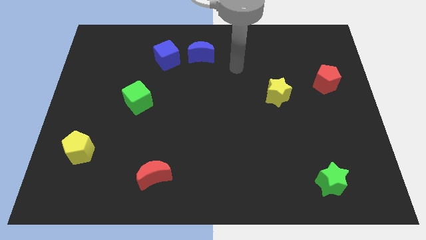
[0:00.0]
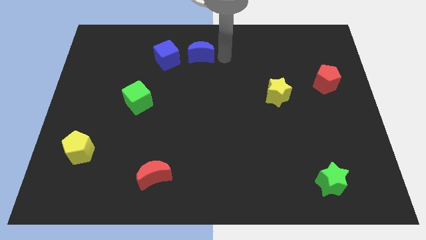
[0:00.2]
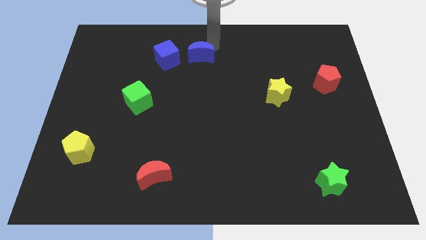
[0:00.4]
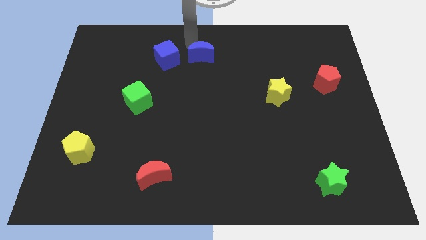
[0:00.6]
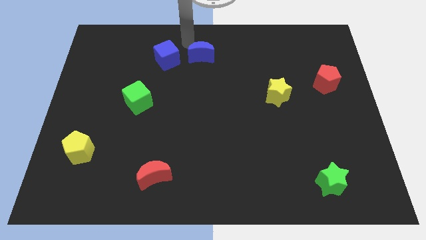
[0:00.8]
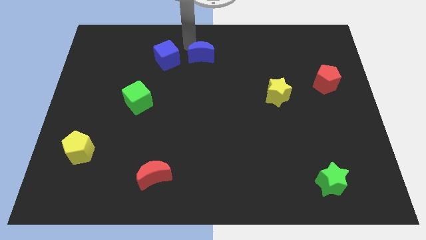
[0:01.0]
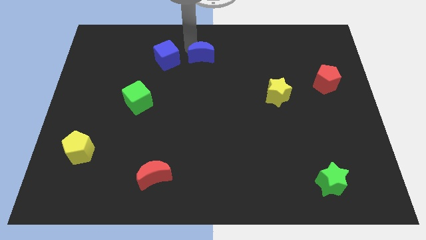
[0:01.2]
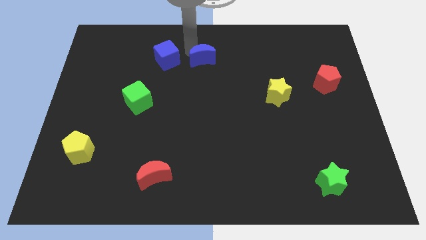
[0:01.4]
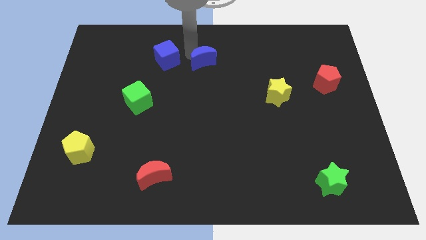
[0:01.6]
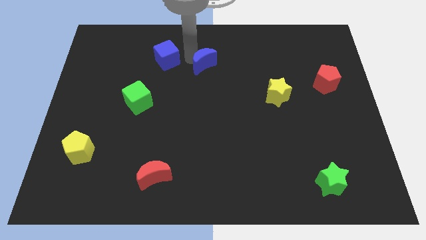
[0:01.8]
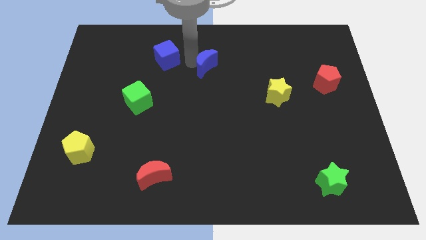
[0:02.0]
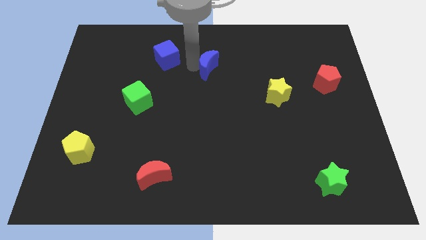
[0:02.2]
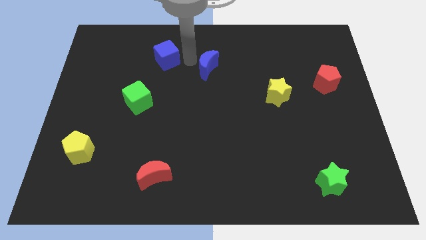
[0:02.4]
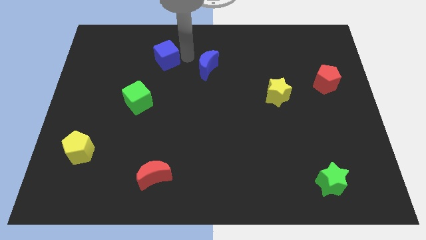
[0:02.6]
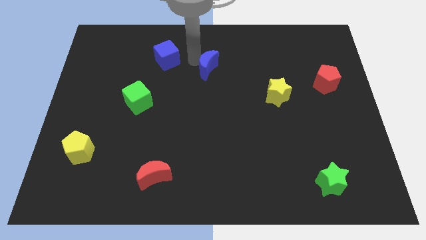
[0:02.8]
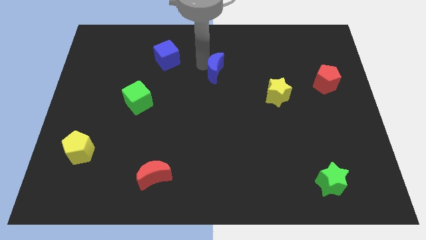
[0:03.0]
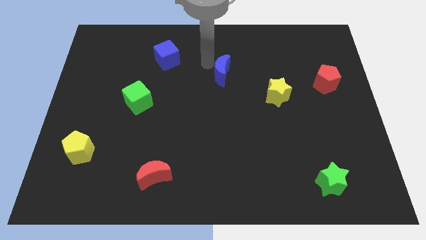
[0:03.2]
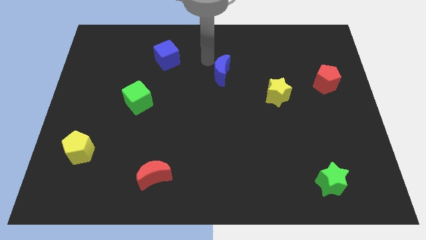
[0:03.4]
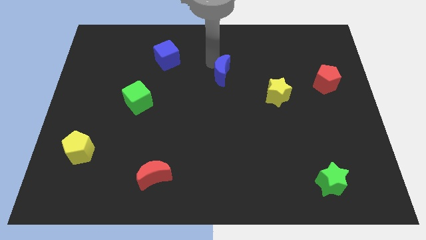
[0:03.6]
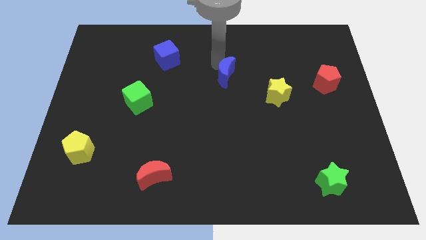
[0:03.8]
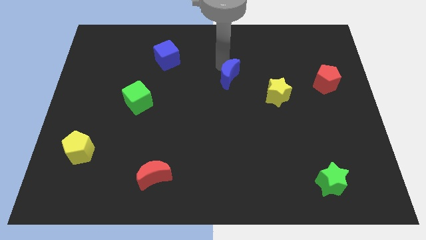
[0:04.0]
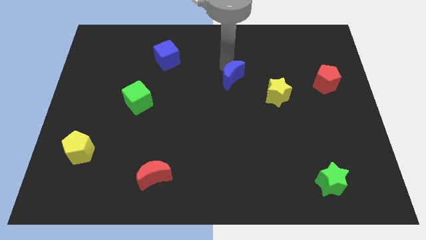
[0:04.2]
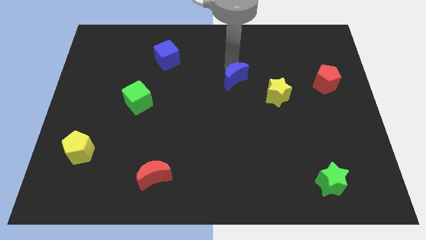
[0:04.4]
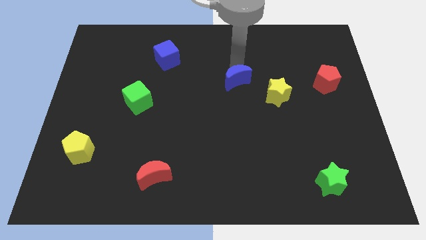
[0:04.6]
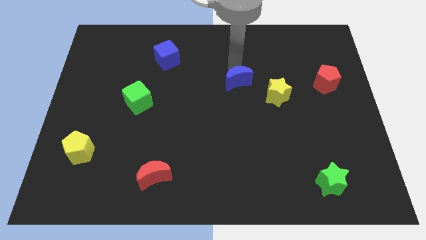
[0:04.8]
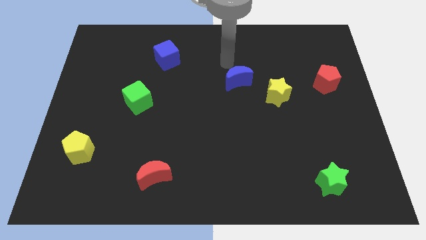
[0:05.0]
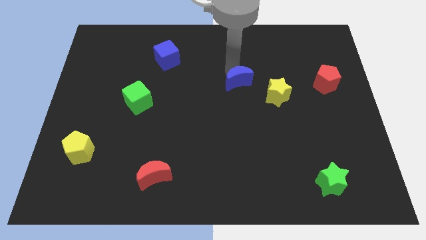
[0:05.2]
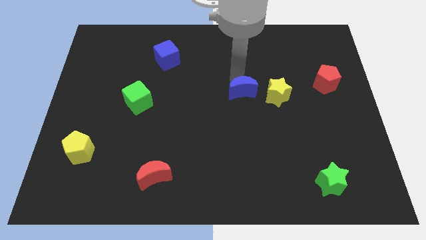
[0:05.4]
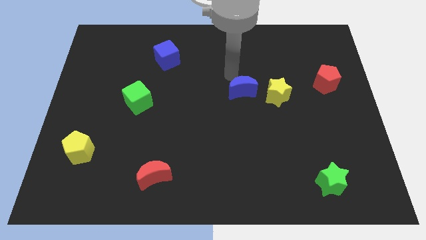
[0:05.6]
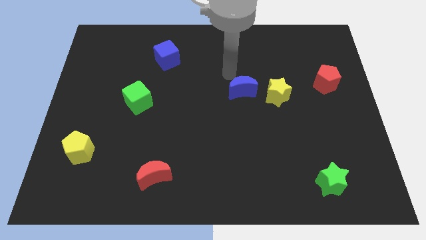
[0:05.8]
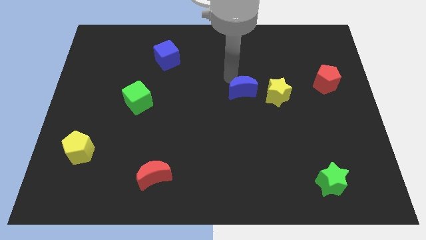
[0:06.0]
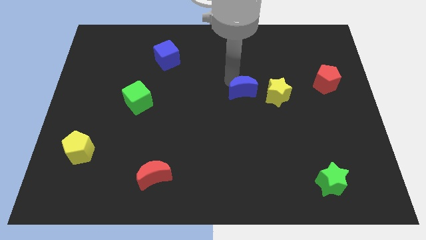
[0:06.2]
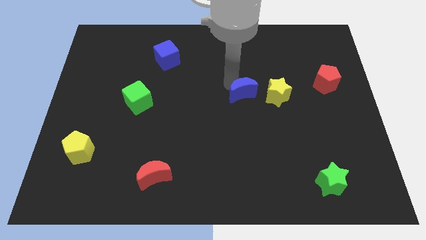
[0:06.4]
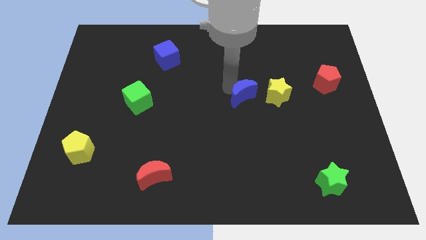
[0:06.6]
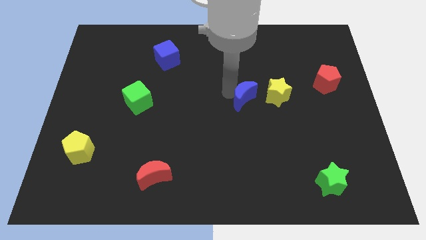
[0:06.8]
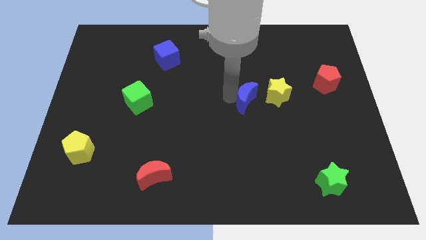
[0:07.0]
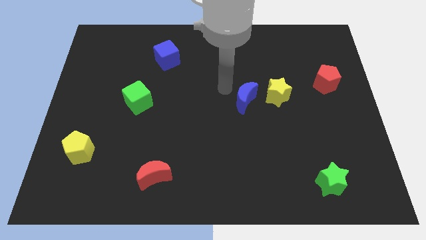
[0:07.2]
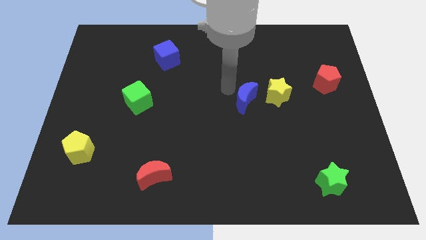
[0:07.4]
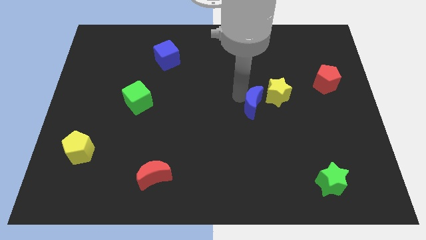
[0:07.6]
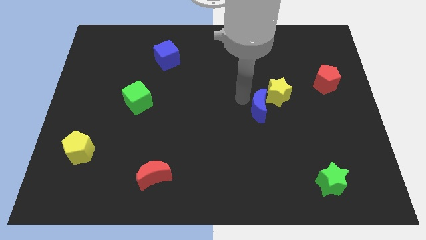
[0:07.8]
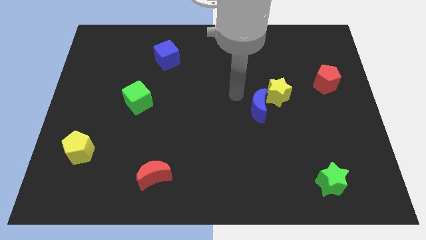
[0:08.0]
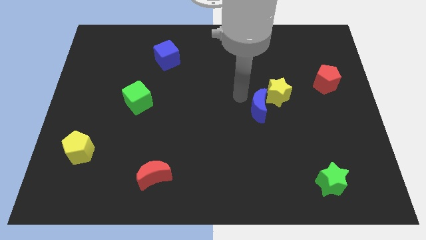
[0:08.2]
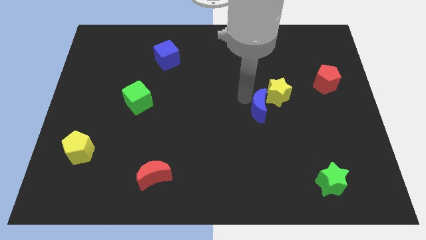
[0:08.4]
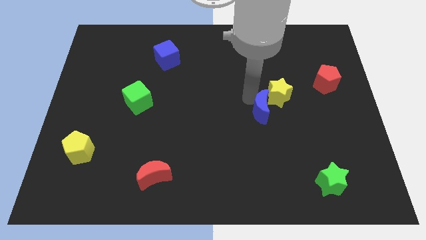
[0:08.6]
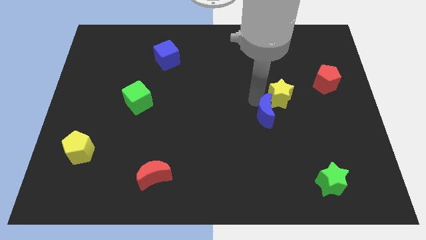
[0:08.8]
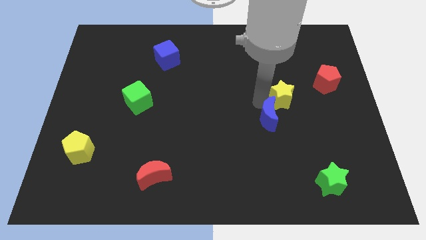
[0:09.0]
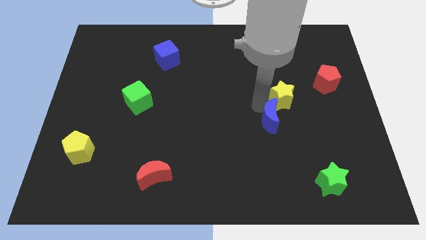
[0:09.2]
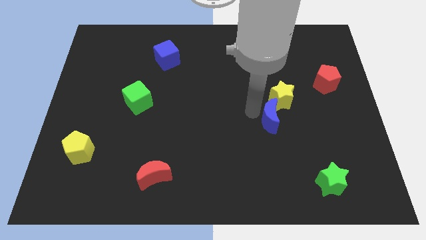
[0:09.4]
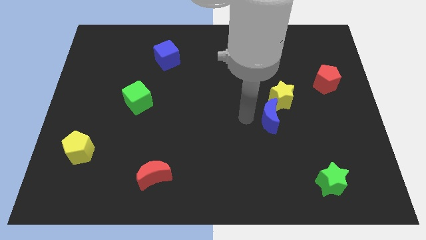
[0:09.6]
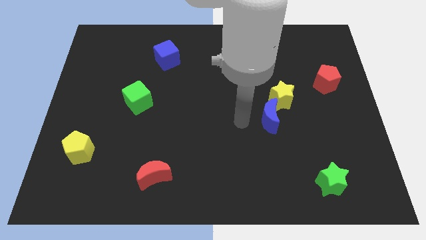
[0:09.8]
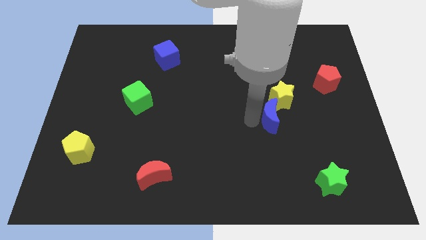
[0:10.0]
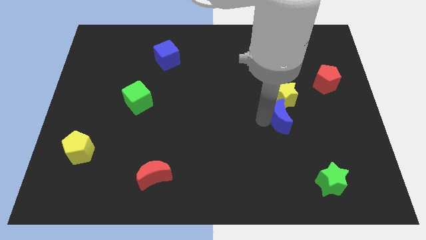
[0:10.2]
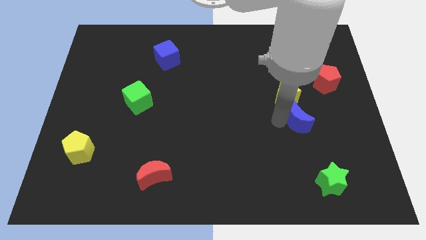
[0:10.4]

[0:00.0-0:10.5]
push the blue moon to the bottom right of the yellow star
